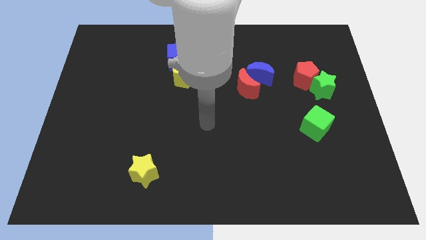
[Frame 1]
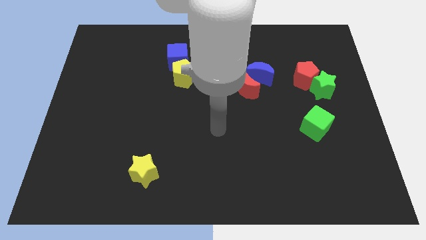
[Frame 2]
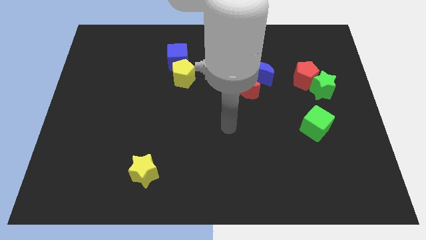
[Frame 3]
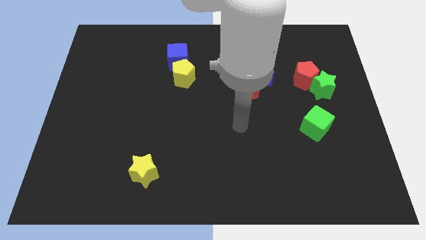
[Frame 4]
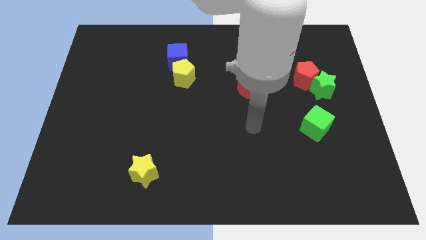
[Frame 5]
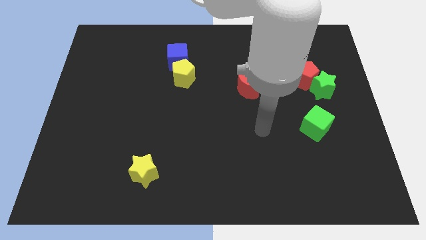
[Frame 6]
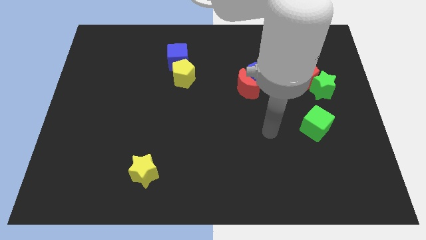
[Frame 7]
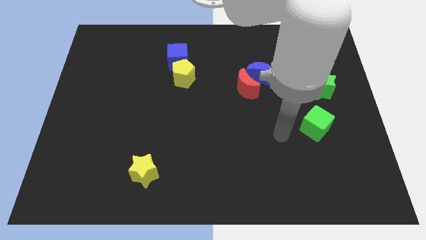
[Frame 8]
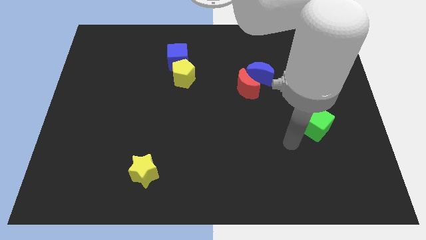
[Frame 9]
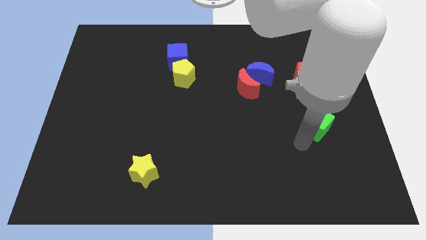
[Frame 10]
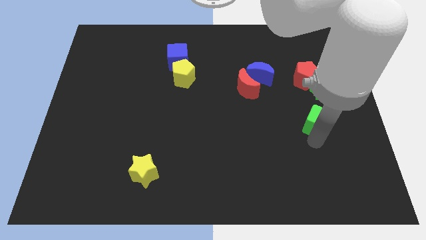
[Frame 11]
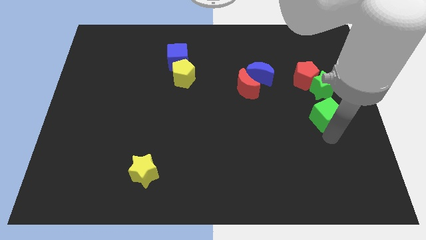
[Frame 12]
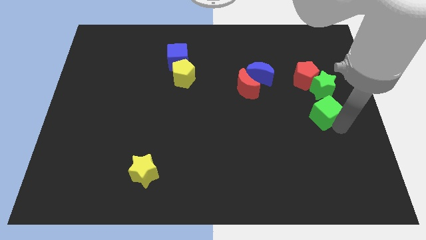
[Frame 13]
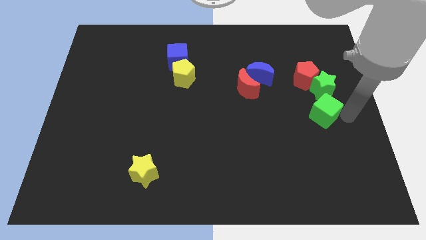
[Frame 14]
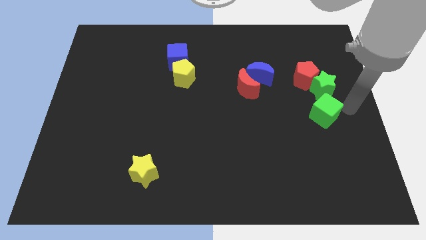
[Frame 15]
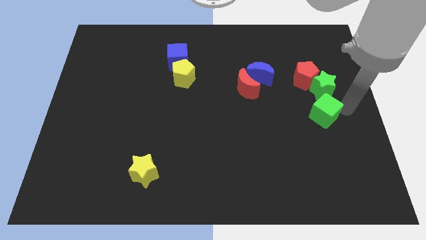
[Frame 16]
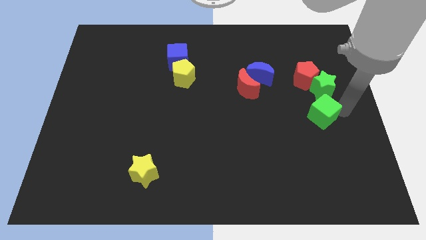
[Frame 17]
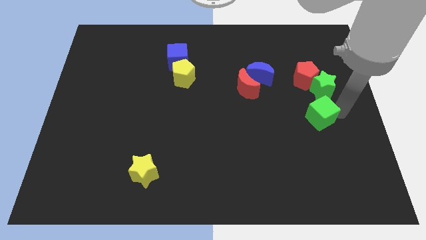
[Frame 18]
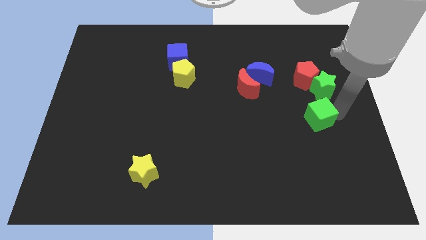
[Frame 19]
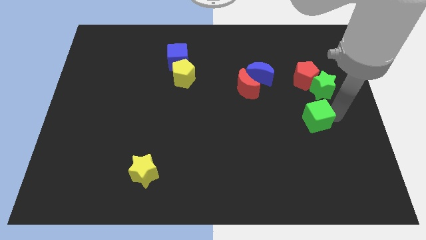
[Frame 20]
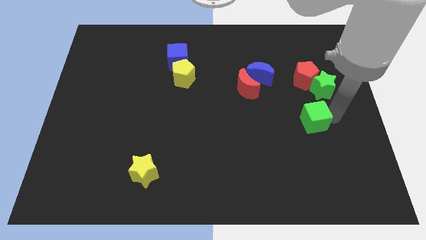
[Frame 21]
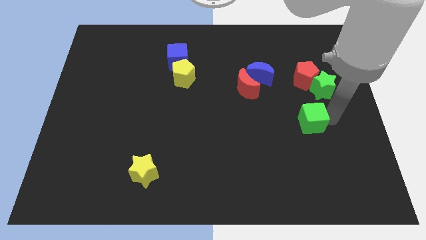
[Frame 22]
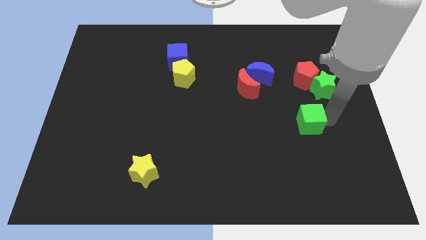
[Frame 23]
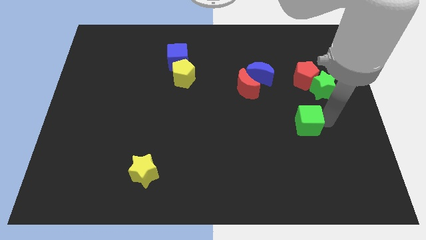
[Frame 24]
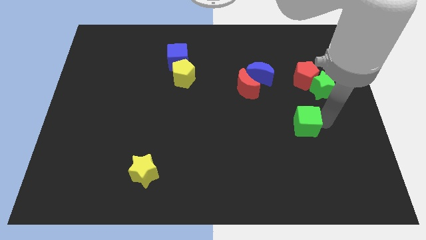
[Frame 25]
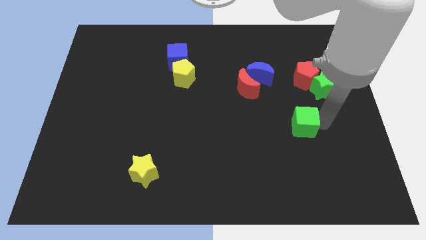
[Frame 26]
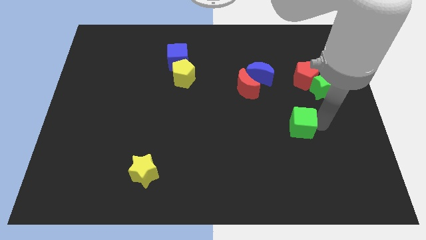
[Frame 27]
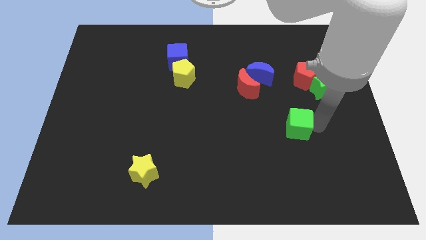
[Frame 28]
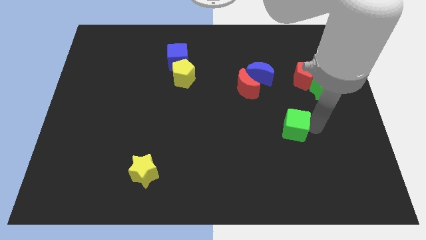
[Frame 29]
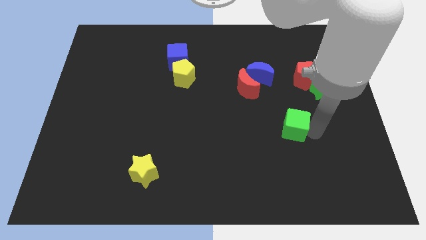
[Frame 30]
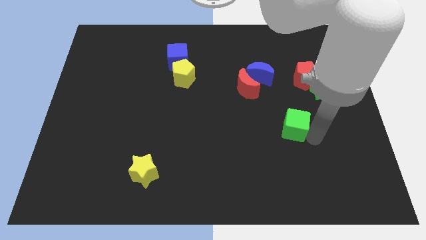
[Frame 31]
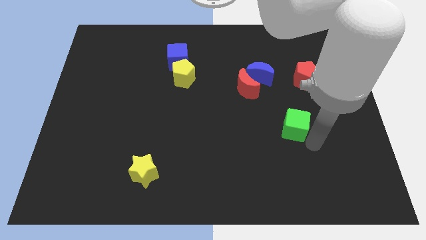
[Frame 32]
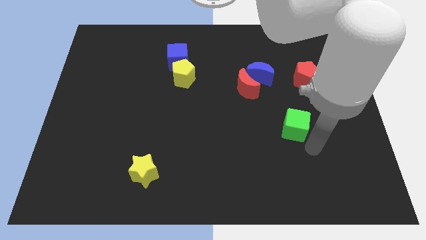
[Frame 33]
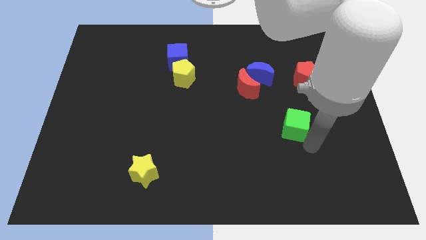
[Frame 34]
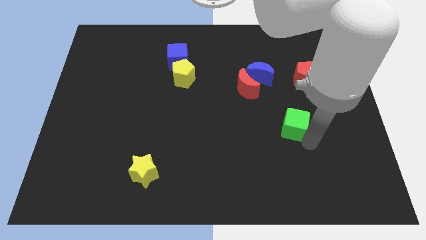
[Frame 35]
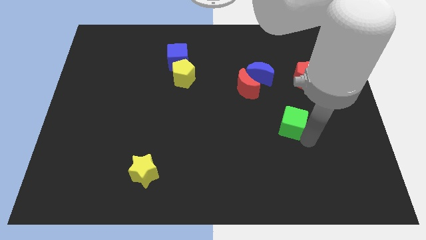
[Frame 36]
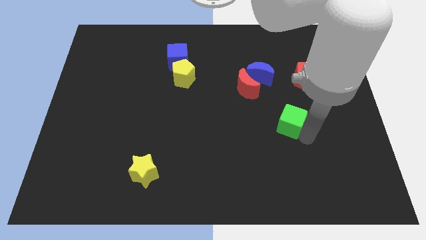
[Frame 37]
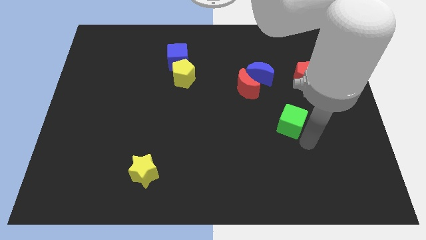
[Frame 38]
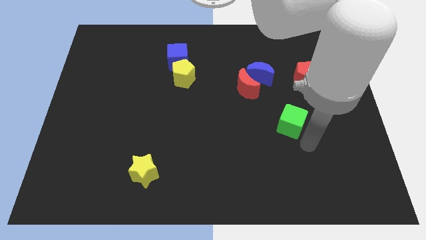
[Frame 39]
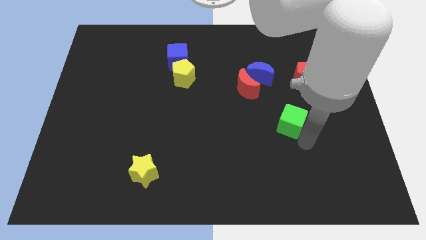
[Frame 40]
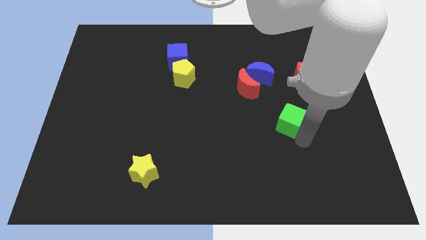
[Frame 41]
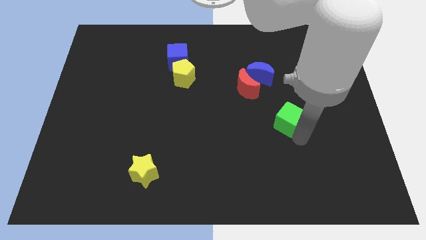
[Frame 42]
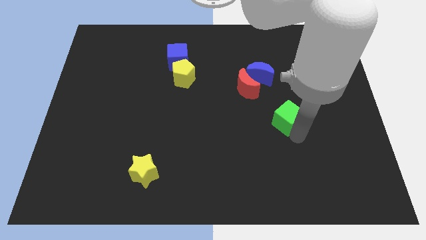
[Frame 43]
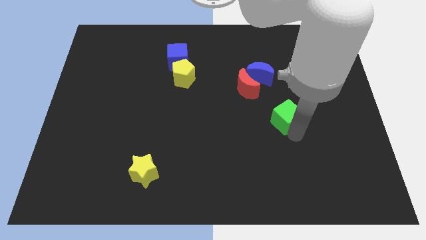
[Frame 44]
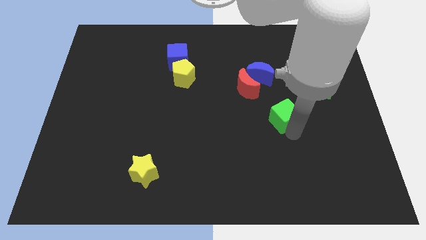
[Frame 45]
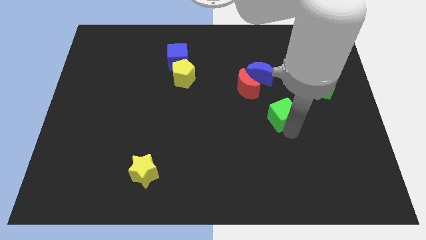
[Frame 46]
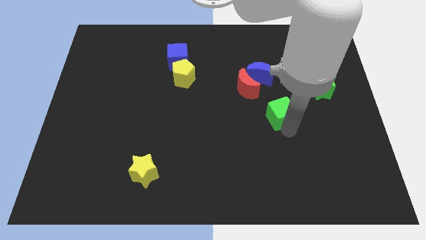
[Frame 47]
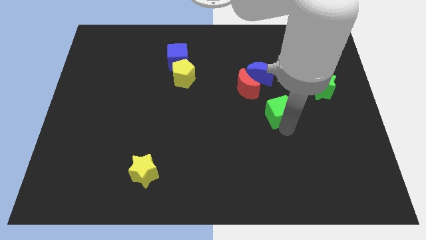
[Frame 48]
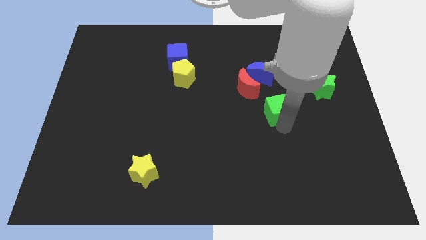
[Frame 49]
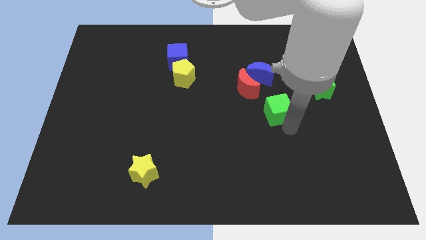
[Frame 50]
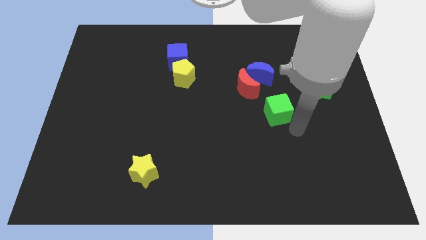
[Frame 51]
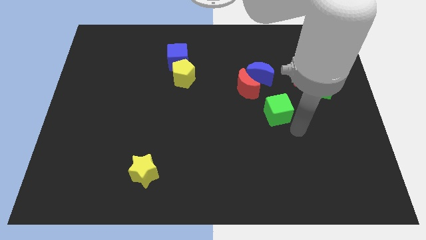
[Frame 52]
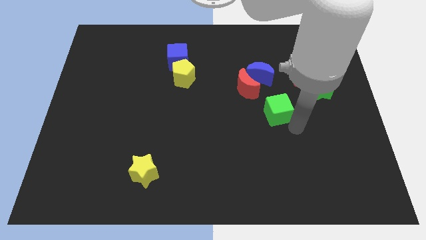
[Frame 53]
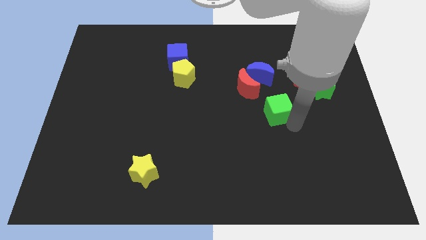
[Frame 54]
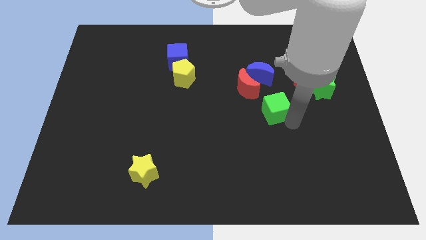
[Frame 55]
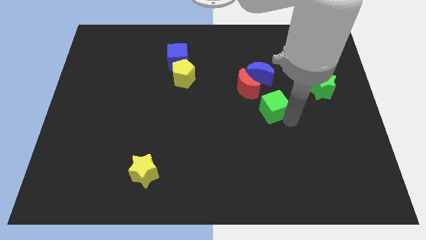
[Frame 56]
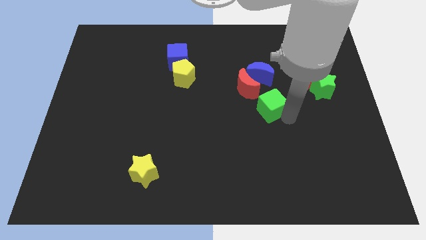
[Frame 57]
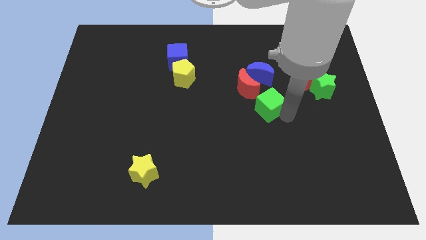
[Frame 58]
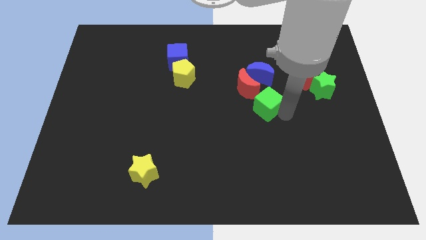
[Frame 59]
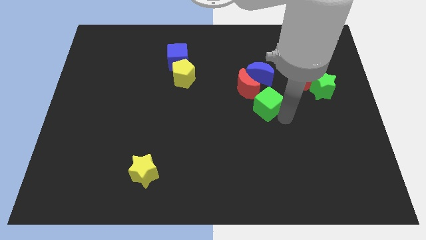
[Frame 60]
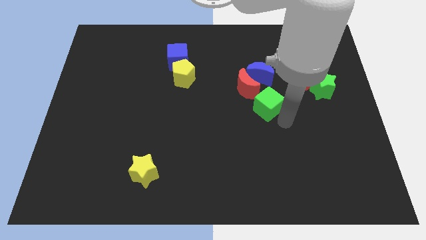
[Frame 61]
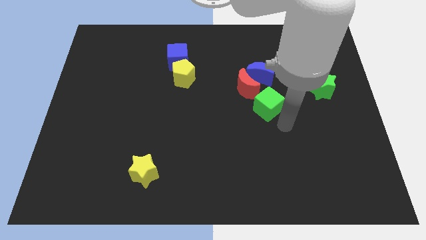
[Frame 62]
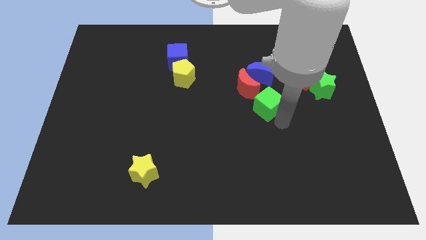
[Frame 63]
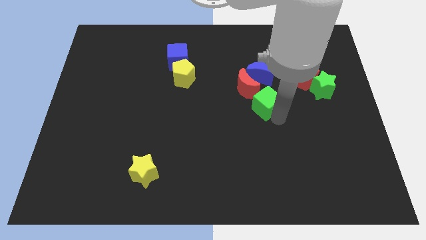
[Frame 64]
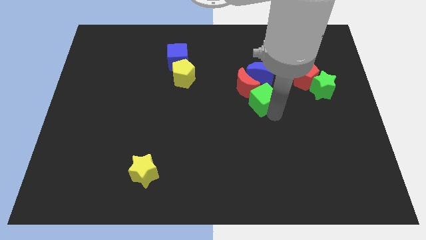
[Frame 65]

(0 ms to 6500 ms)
move the green cube to the red moon

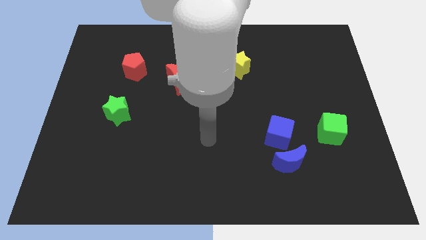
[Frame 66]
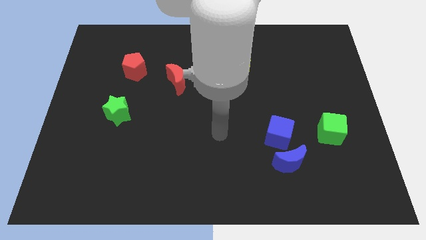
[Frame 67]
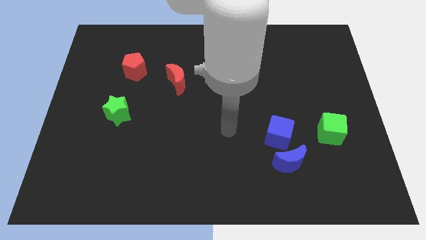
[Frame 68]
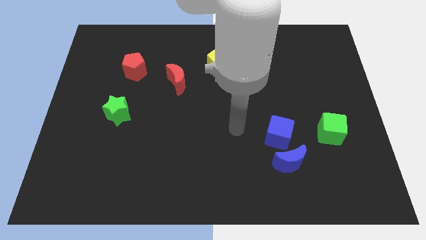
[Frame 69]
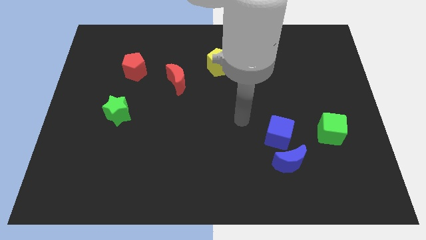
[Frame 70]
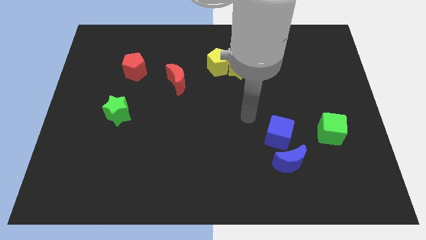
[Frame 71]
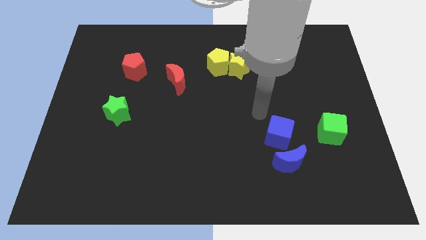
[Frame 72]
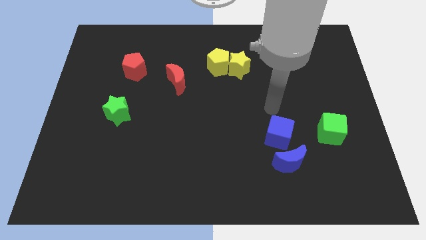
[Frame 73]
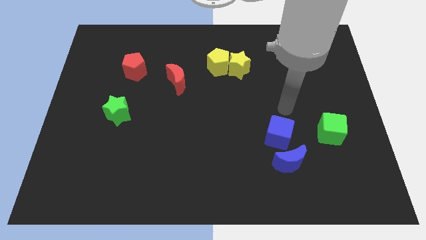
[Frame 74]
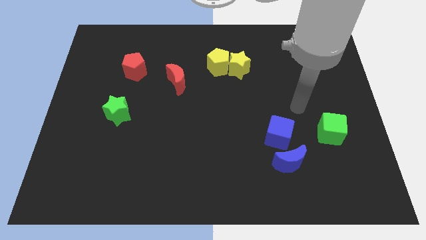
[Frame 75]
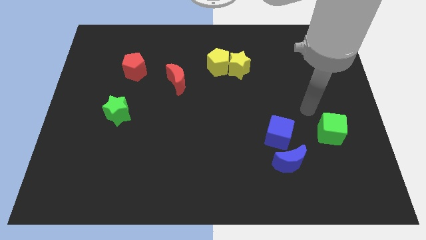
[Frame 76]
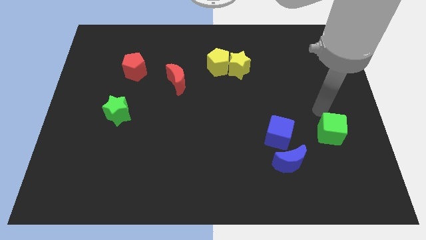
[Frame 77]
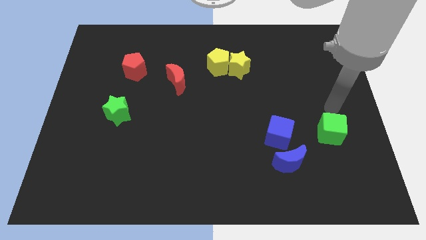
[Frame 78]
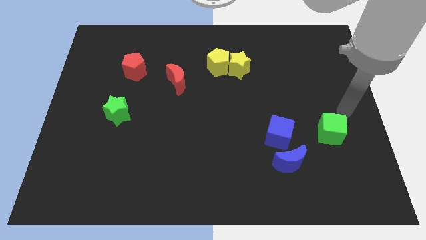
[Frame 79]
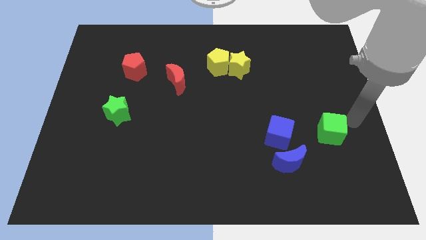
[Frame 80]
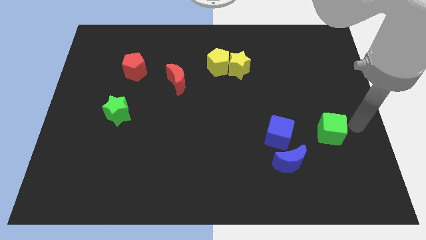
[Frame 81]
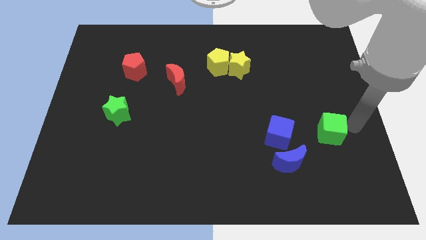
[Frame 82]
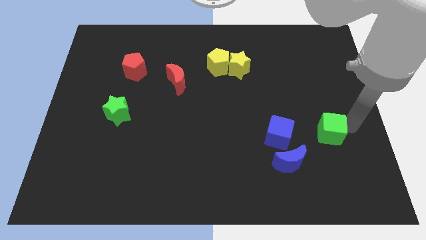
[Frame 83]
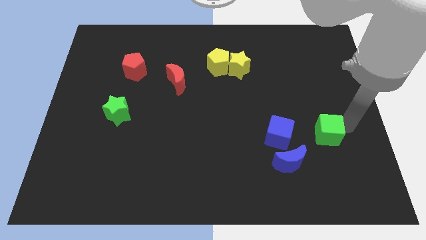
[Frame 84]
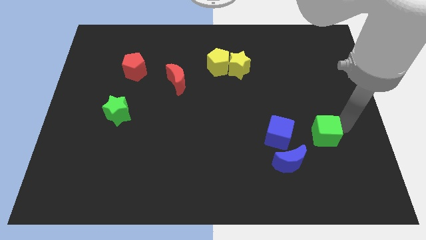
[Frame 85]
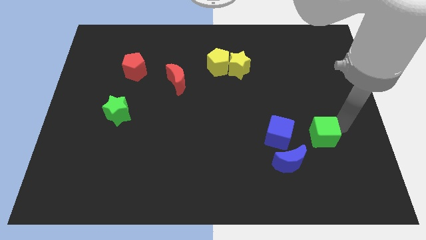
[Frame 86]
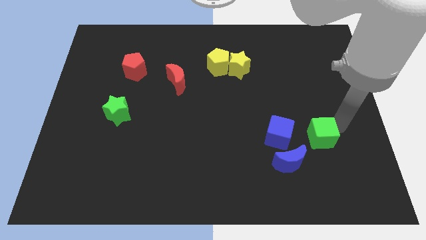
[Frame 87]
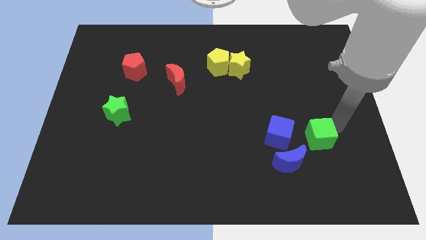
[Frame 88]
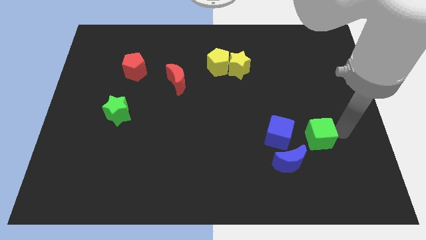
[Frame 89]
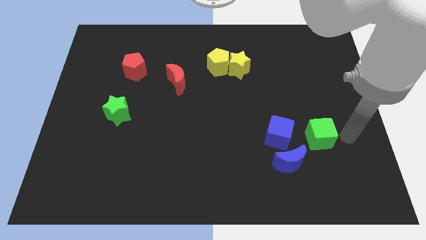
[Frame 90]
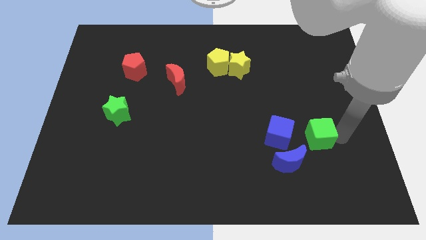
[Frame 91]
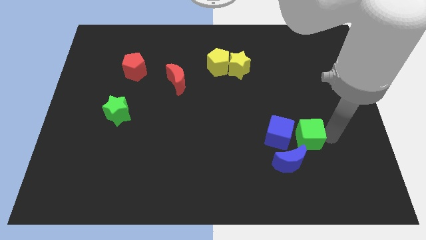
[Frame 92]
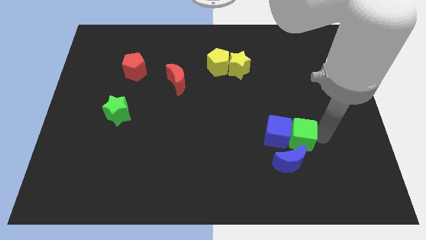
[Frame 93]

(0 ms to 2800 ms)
slide the green cube close to the blue cube
